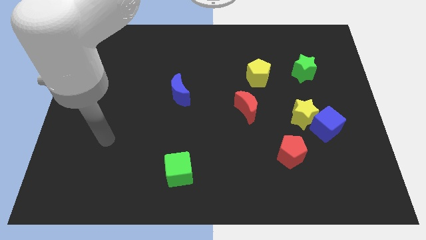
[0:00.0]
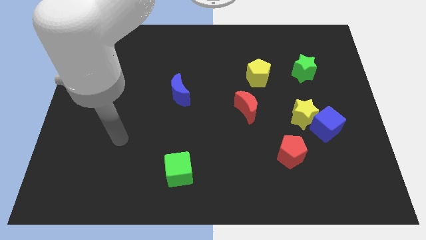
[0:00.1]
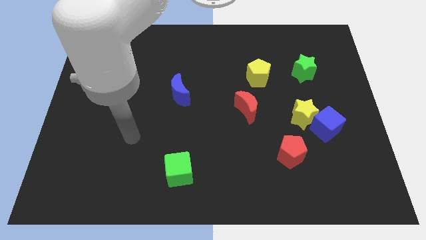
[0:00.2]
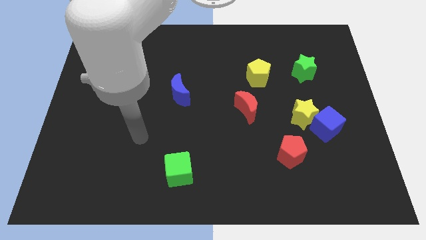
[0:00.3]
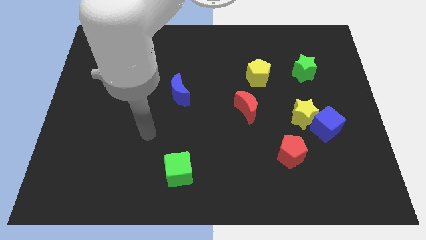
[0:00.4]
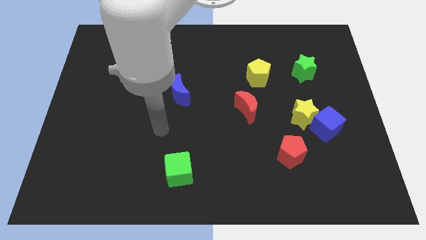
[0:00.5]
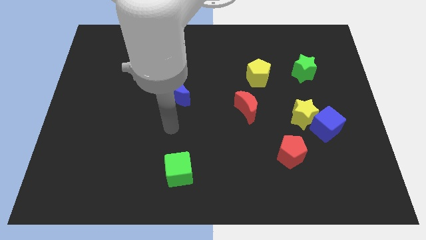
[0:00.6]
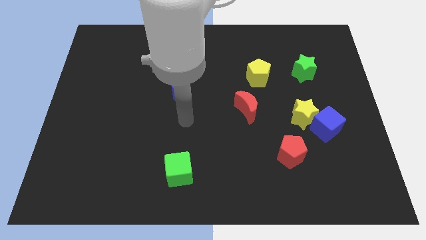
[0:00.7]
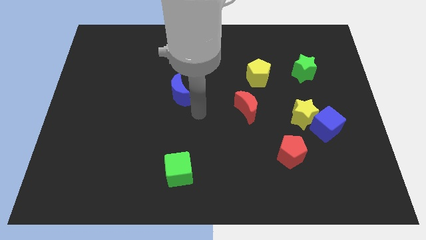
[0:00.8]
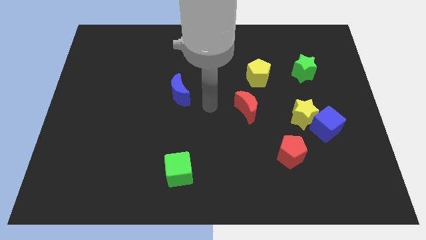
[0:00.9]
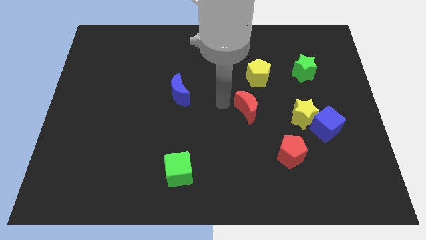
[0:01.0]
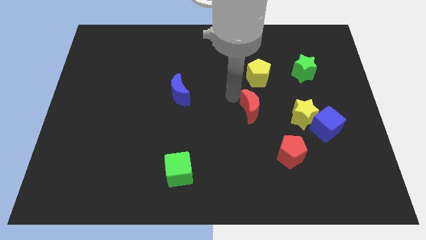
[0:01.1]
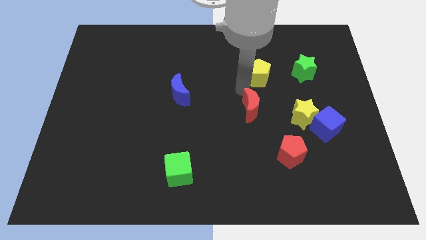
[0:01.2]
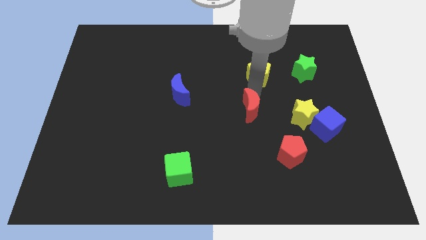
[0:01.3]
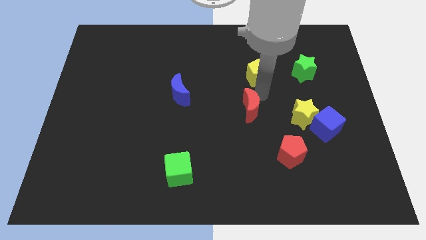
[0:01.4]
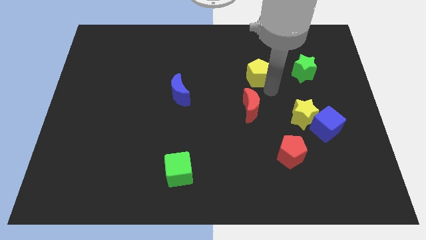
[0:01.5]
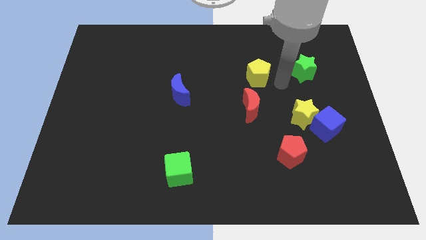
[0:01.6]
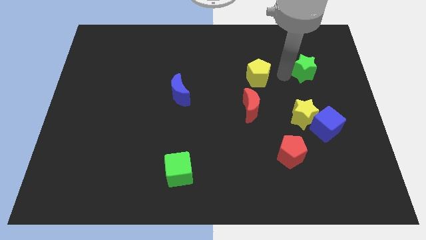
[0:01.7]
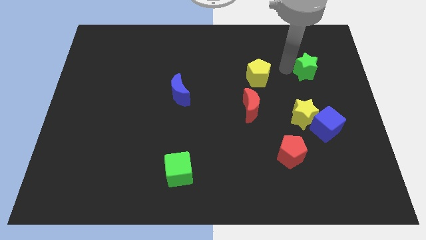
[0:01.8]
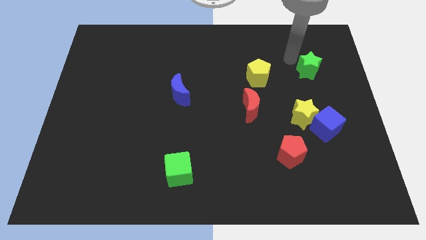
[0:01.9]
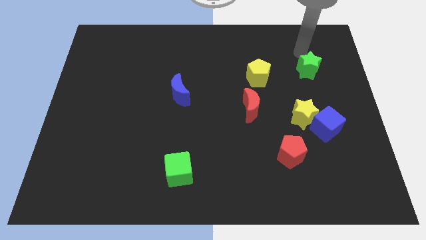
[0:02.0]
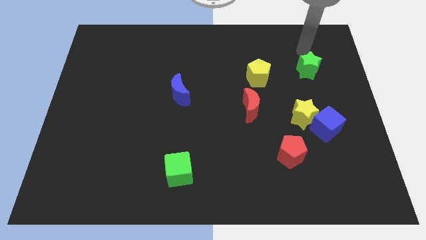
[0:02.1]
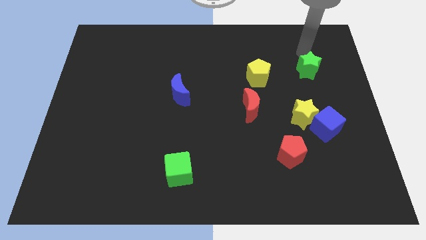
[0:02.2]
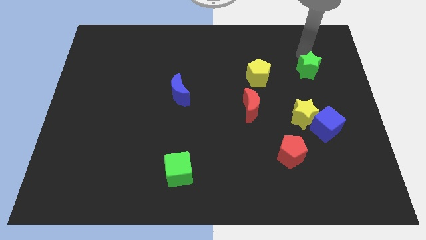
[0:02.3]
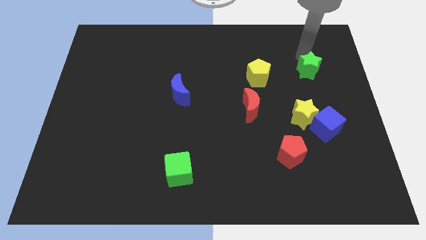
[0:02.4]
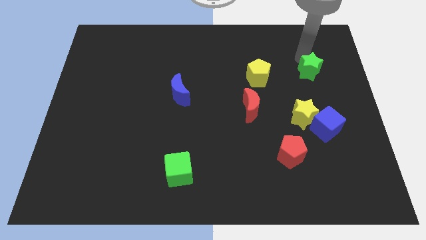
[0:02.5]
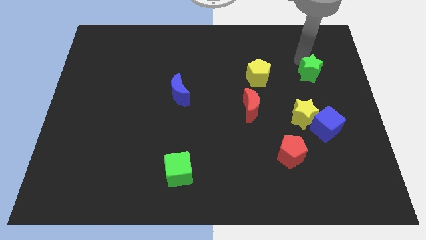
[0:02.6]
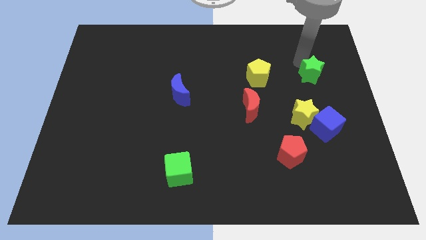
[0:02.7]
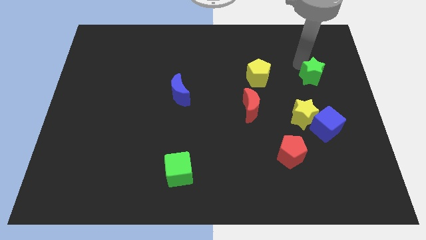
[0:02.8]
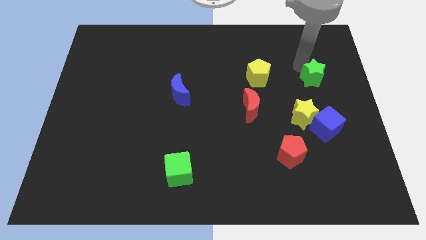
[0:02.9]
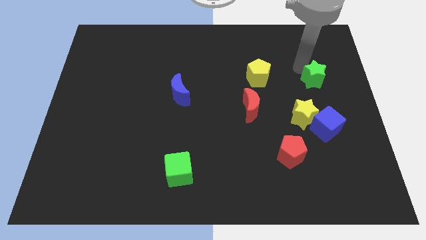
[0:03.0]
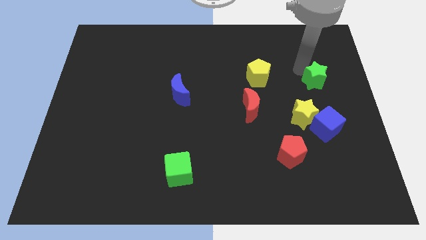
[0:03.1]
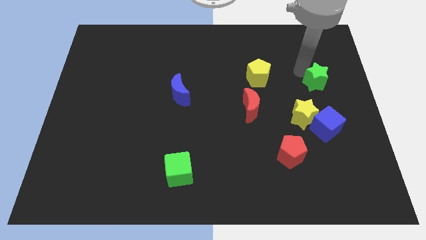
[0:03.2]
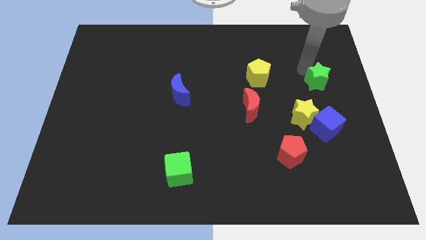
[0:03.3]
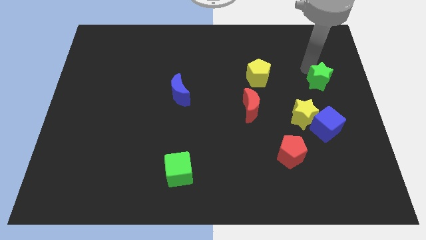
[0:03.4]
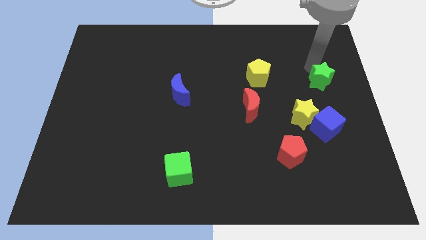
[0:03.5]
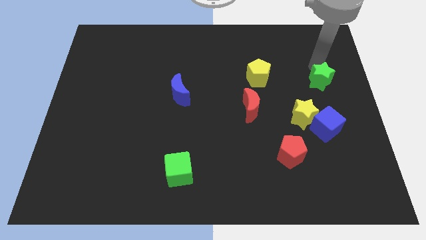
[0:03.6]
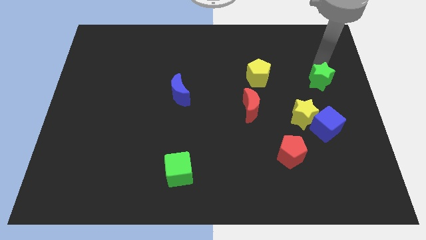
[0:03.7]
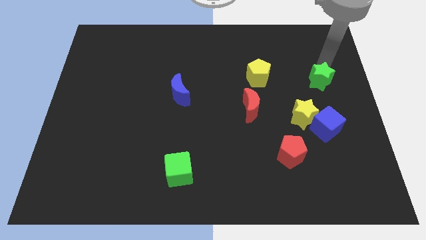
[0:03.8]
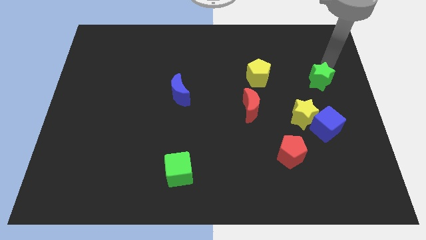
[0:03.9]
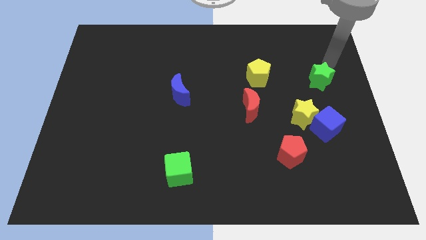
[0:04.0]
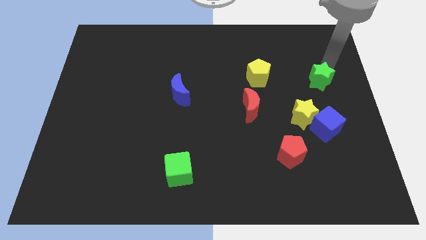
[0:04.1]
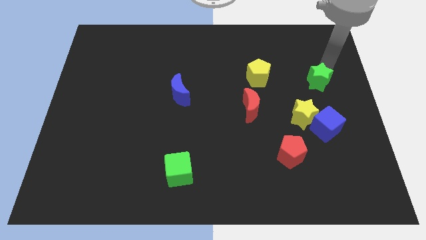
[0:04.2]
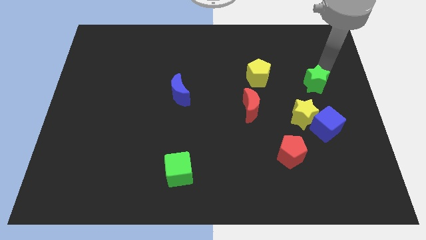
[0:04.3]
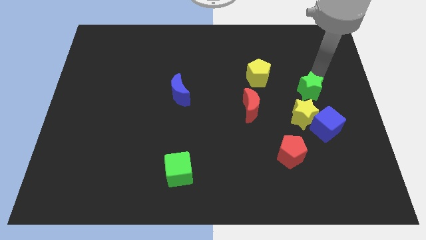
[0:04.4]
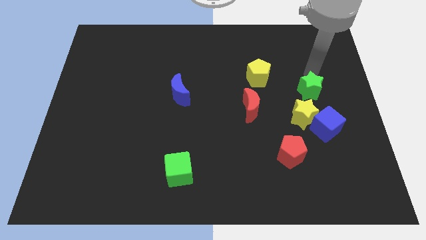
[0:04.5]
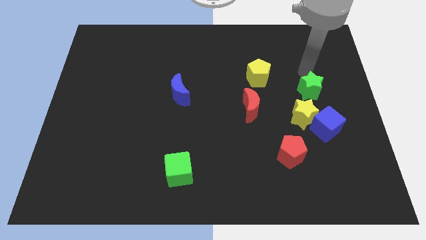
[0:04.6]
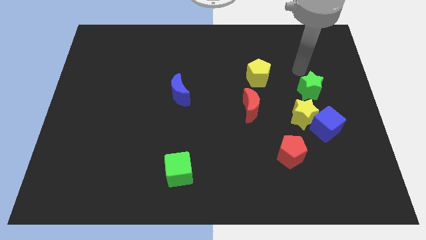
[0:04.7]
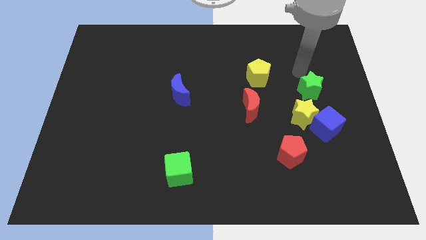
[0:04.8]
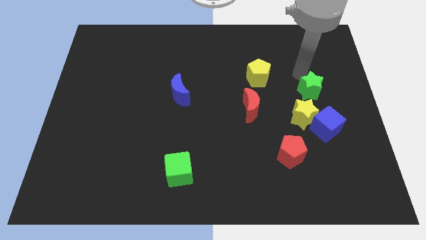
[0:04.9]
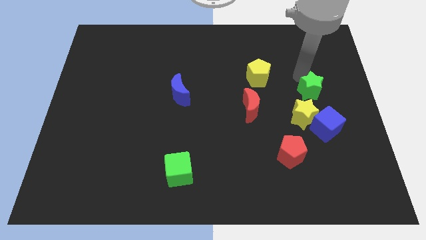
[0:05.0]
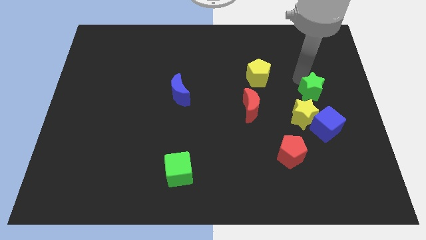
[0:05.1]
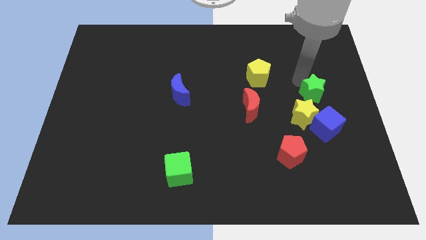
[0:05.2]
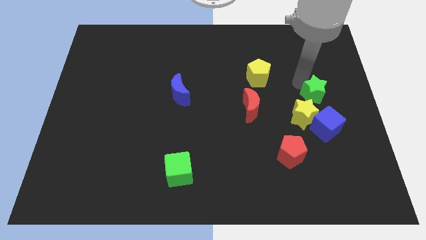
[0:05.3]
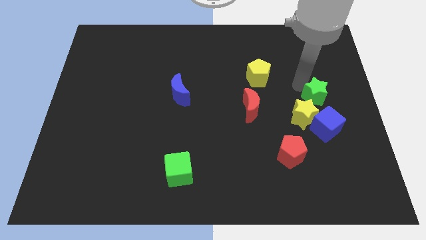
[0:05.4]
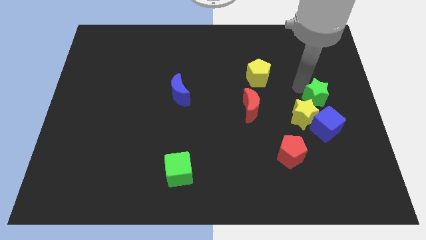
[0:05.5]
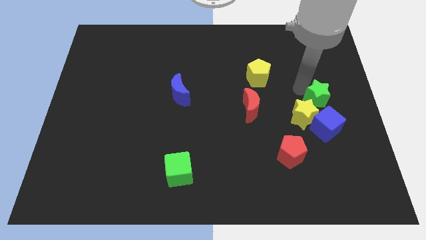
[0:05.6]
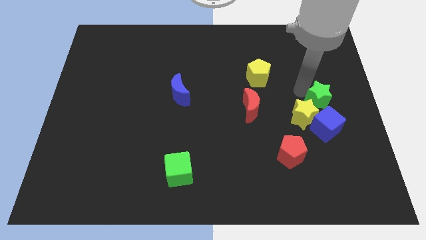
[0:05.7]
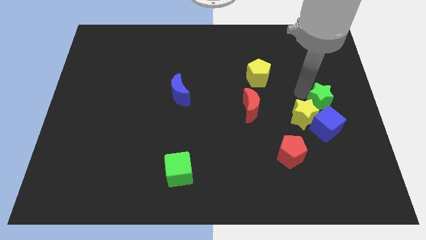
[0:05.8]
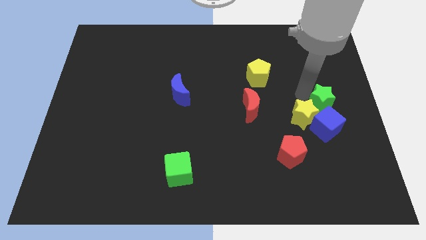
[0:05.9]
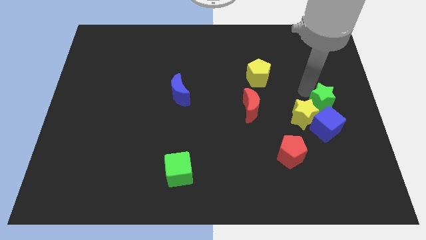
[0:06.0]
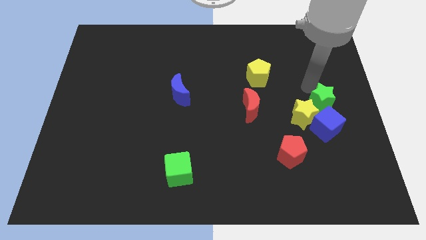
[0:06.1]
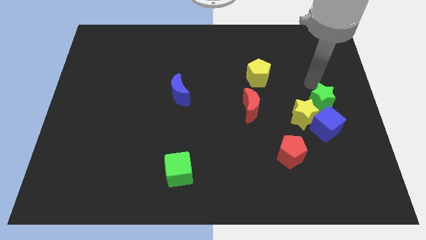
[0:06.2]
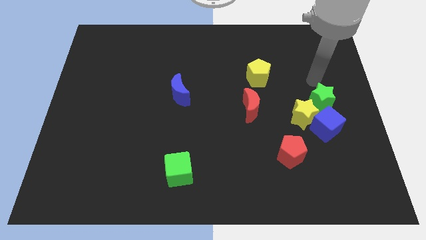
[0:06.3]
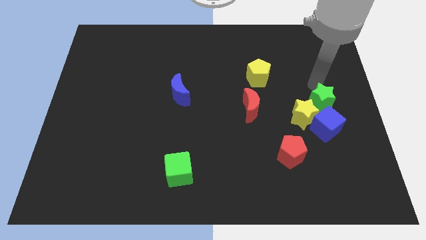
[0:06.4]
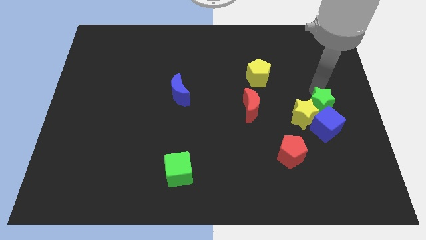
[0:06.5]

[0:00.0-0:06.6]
push the green star close to the blue cube

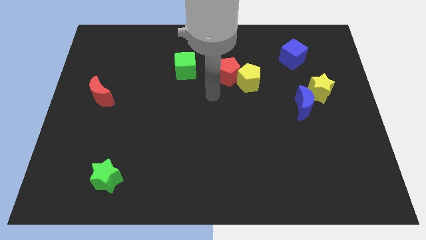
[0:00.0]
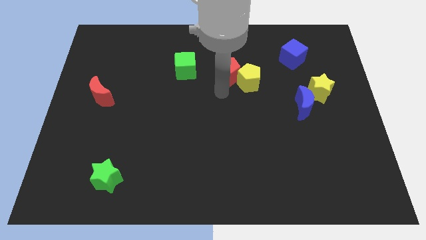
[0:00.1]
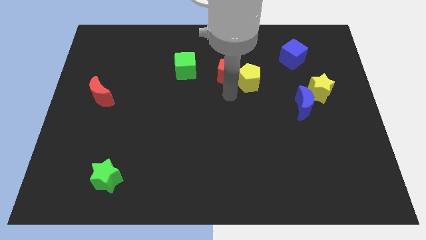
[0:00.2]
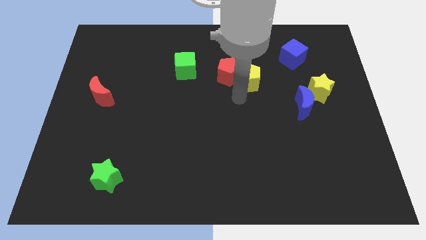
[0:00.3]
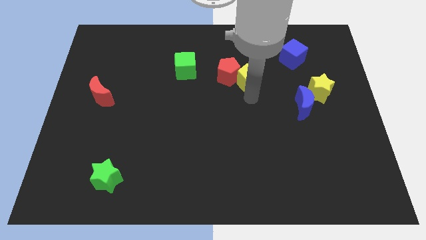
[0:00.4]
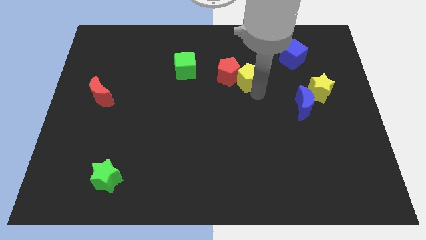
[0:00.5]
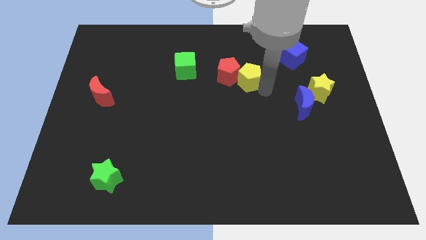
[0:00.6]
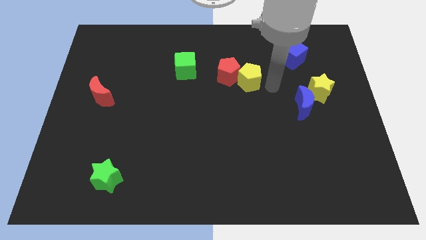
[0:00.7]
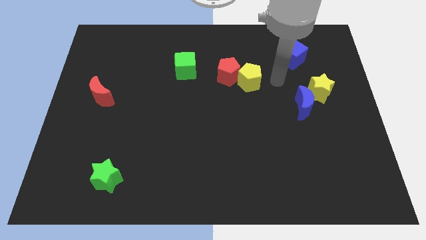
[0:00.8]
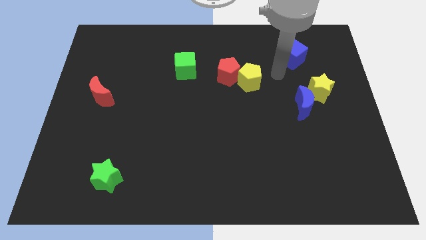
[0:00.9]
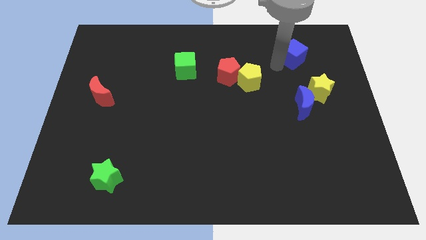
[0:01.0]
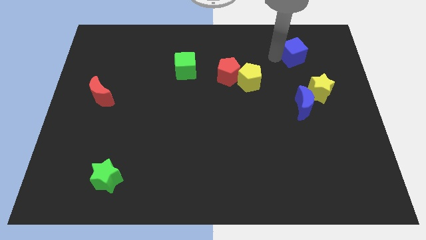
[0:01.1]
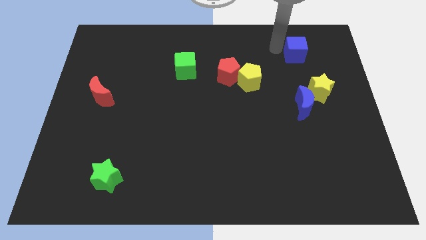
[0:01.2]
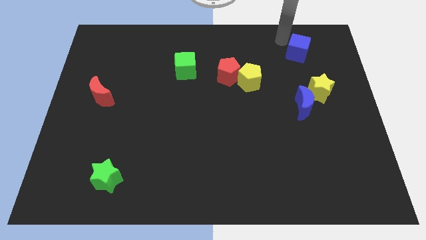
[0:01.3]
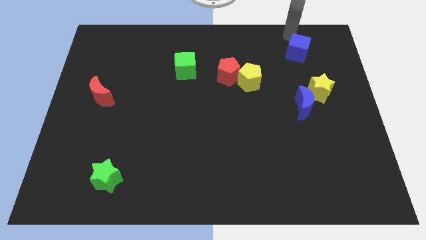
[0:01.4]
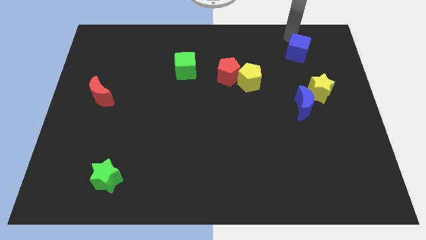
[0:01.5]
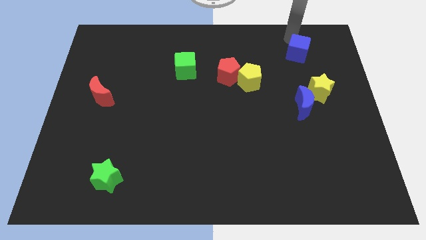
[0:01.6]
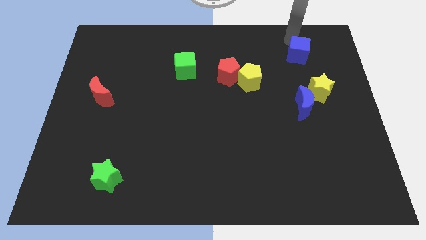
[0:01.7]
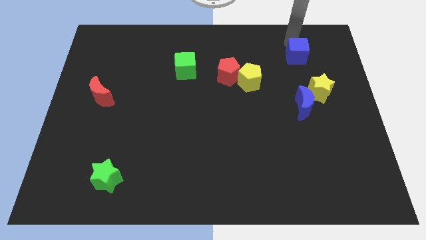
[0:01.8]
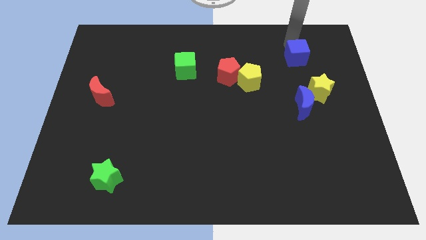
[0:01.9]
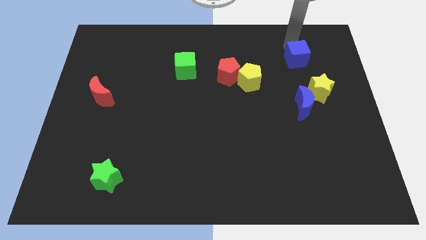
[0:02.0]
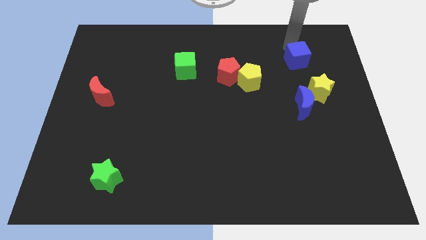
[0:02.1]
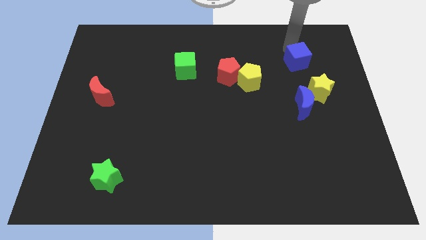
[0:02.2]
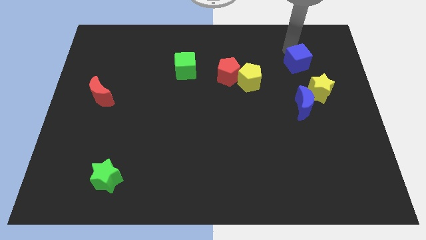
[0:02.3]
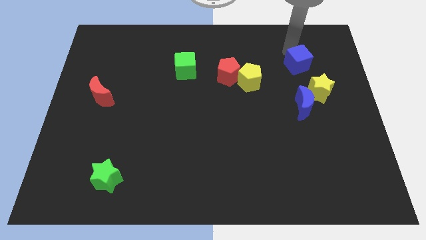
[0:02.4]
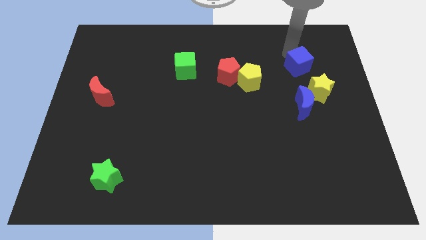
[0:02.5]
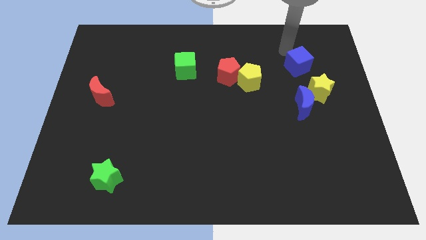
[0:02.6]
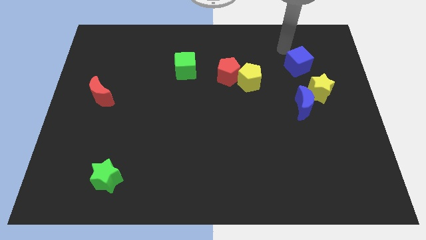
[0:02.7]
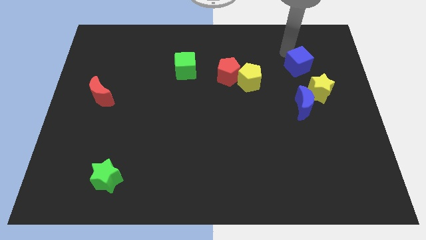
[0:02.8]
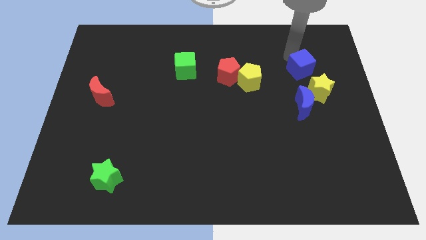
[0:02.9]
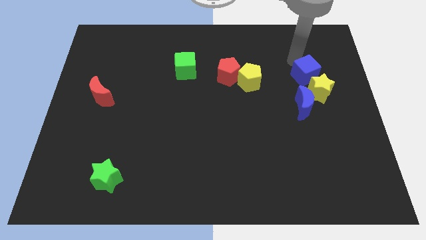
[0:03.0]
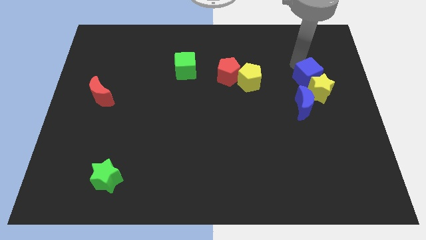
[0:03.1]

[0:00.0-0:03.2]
put the blue cube towards the yellow star
